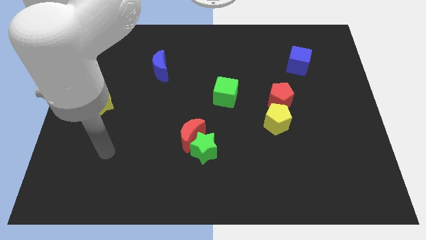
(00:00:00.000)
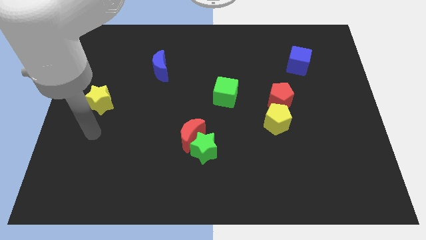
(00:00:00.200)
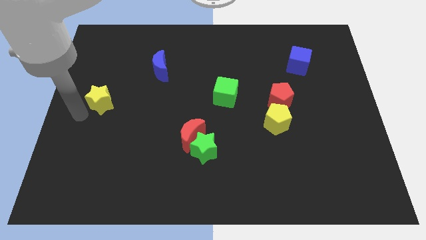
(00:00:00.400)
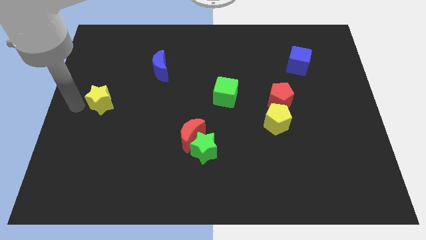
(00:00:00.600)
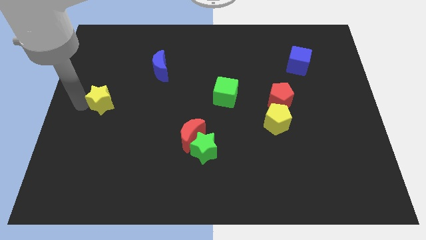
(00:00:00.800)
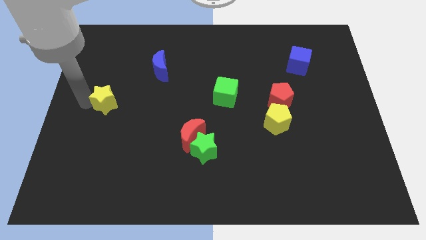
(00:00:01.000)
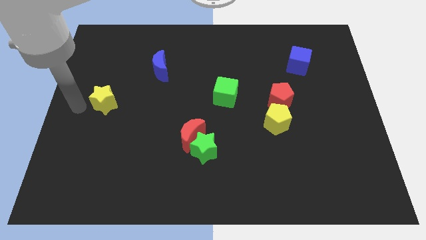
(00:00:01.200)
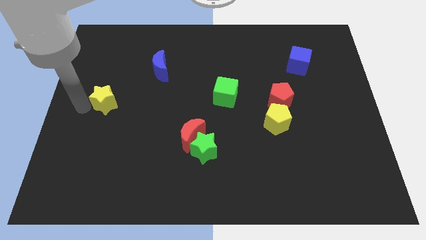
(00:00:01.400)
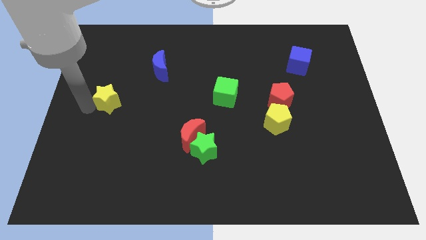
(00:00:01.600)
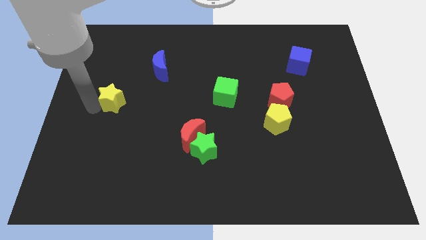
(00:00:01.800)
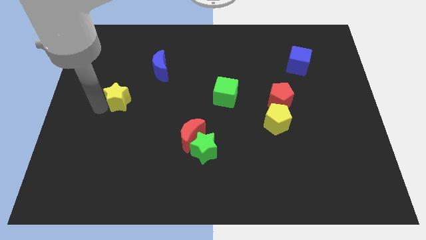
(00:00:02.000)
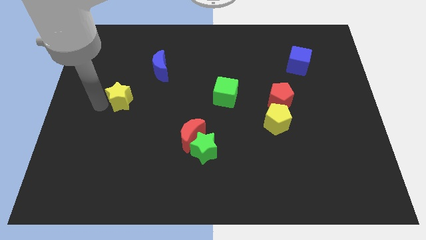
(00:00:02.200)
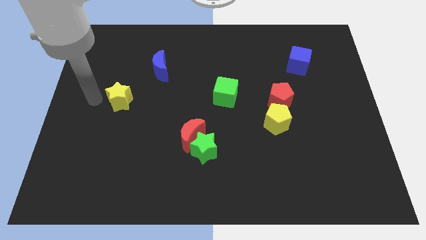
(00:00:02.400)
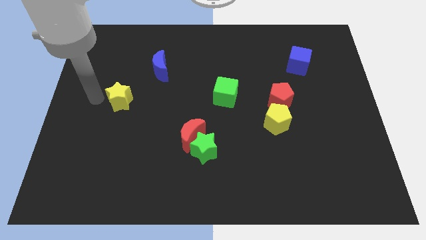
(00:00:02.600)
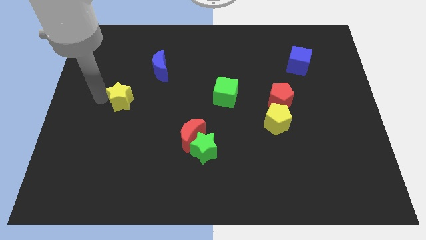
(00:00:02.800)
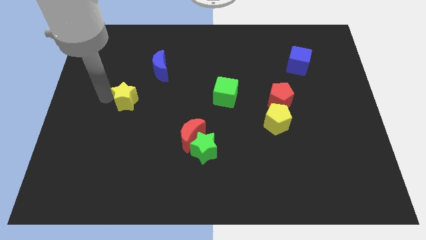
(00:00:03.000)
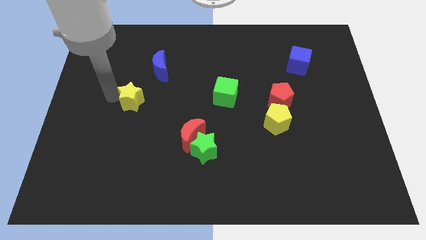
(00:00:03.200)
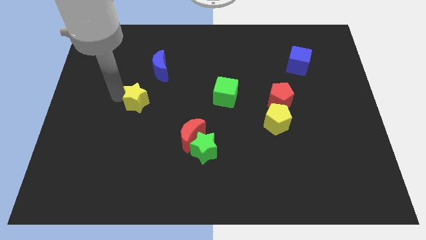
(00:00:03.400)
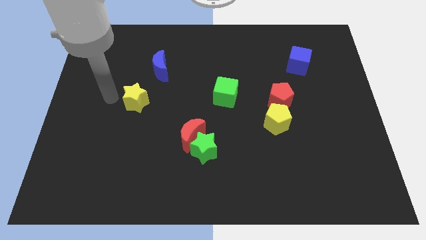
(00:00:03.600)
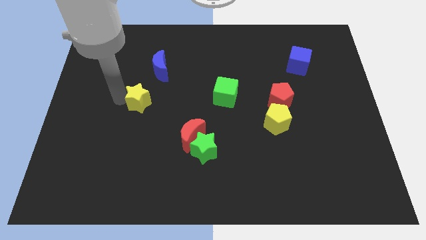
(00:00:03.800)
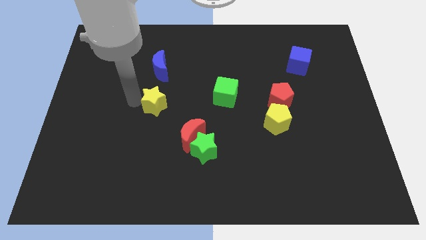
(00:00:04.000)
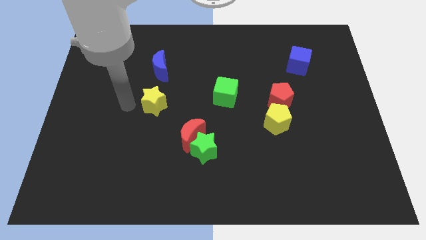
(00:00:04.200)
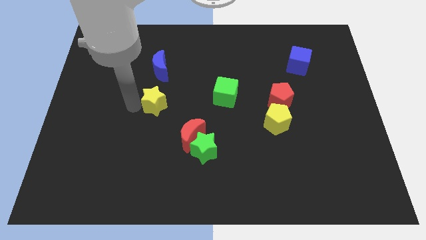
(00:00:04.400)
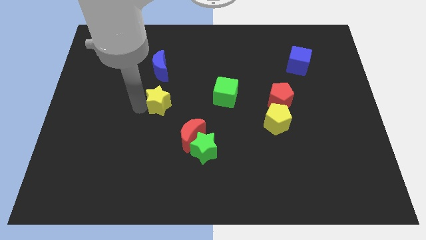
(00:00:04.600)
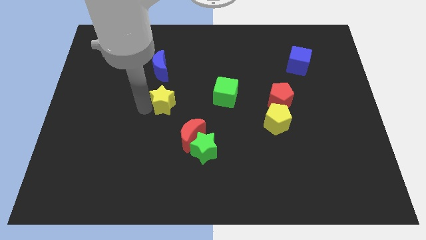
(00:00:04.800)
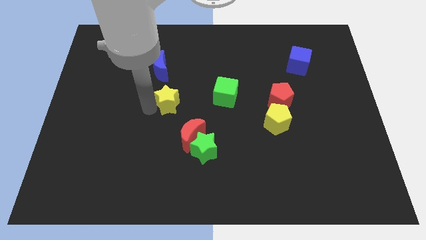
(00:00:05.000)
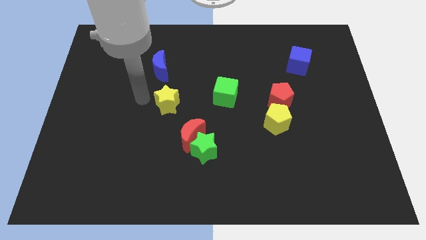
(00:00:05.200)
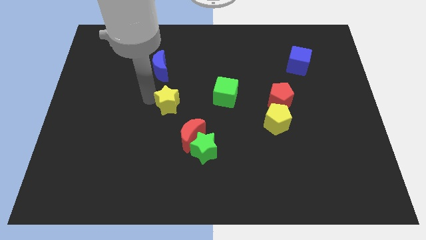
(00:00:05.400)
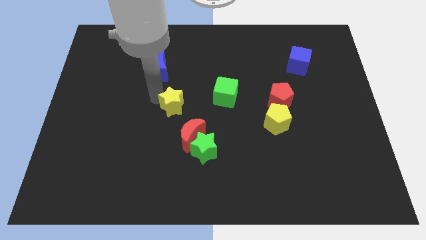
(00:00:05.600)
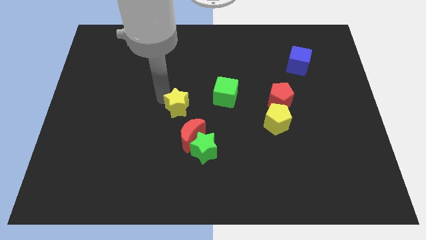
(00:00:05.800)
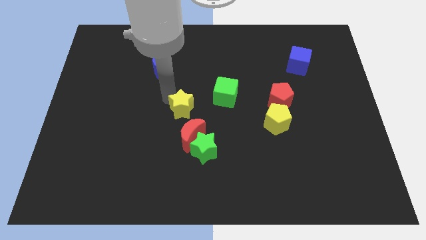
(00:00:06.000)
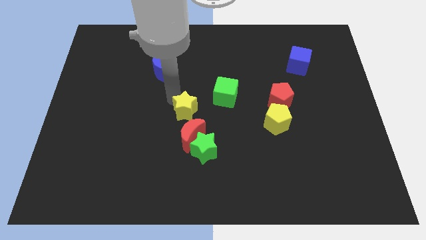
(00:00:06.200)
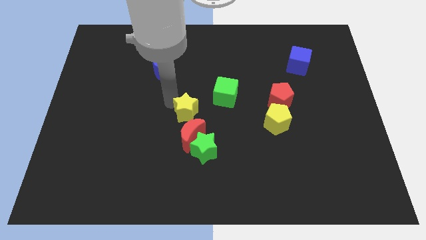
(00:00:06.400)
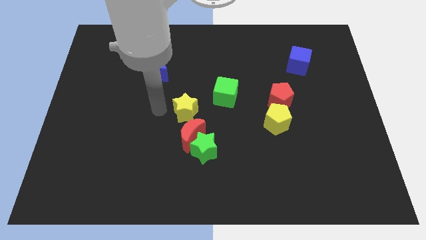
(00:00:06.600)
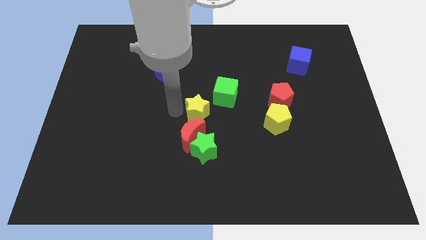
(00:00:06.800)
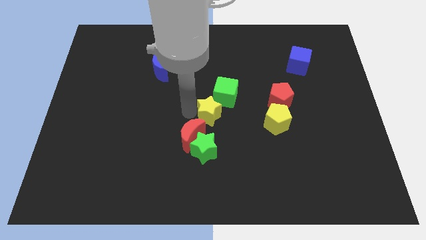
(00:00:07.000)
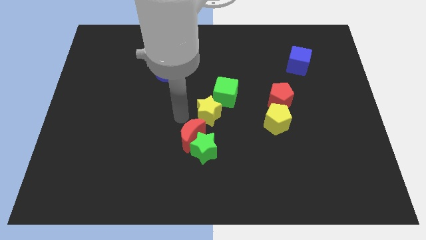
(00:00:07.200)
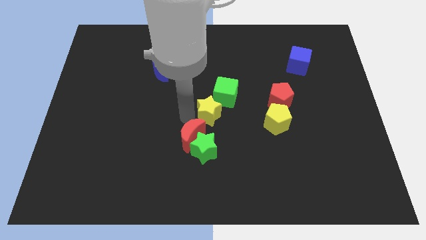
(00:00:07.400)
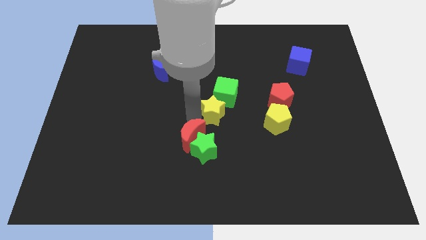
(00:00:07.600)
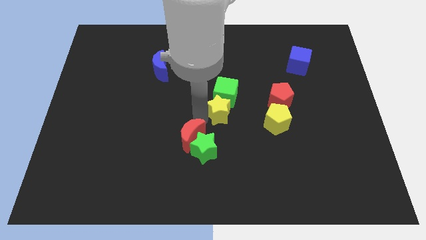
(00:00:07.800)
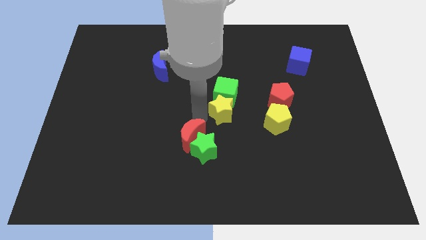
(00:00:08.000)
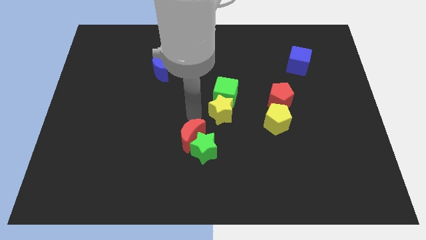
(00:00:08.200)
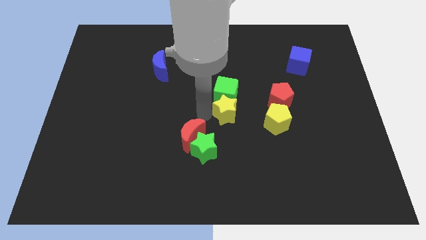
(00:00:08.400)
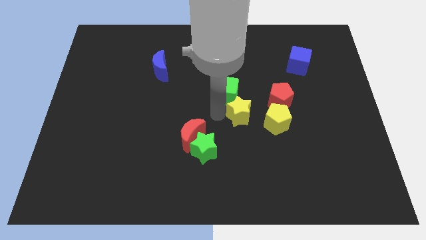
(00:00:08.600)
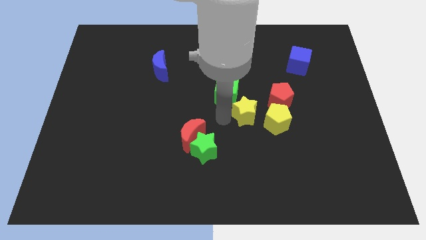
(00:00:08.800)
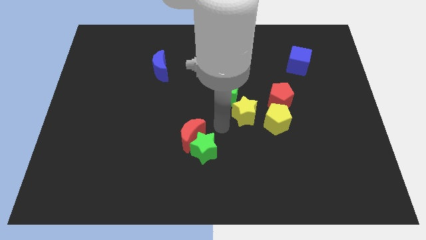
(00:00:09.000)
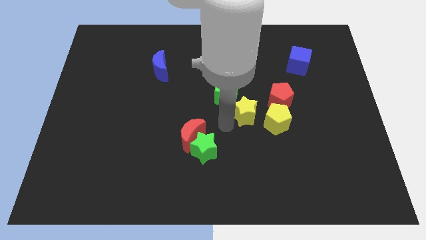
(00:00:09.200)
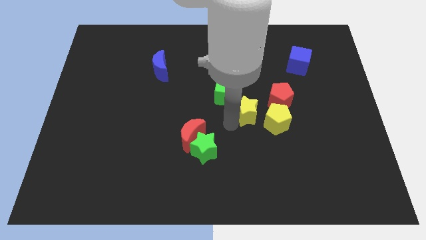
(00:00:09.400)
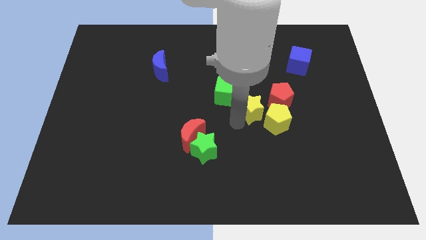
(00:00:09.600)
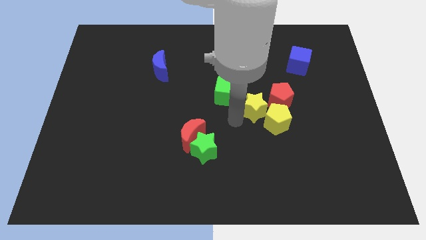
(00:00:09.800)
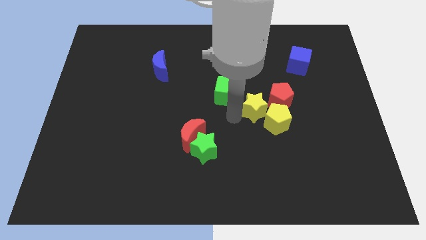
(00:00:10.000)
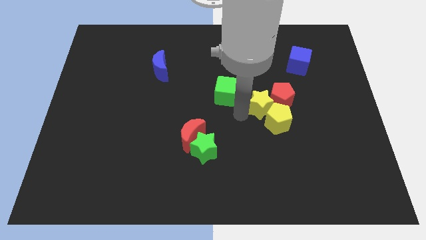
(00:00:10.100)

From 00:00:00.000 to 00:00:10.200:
slide the yellow star next to the red pentagon

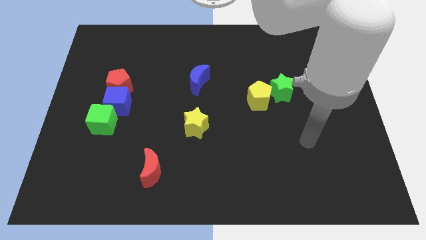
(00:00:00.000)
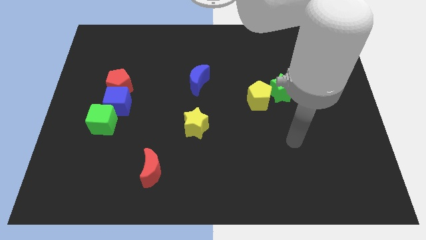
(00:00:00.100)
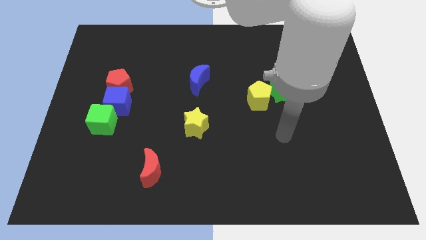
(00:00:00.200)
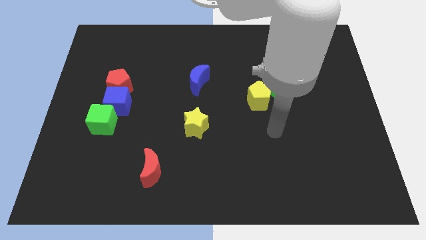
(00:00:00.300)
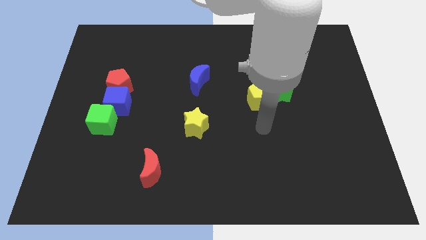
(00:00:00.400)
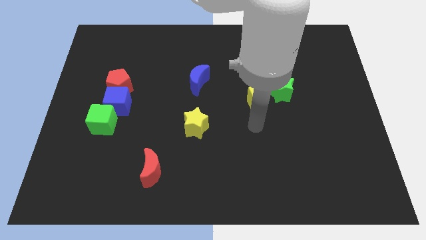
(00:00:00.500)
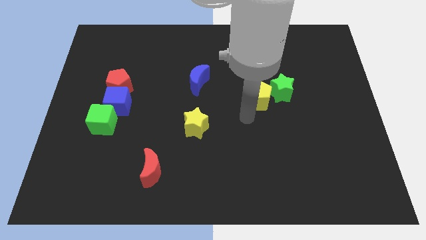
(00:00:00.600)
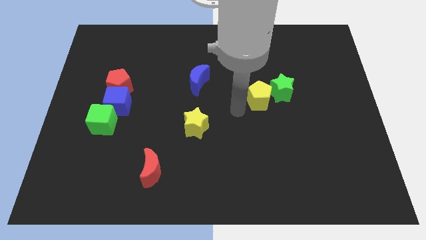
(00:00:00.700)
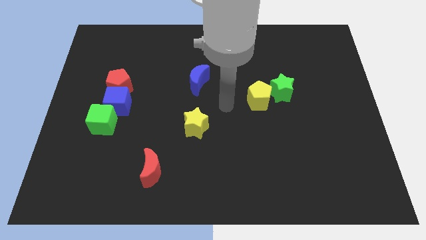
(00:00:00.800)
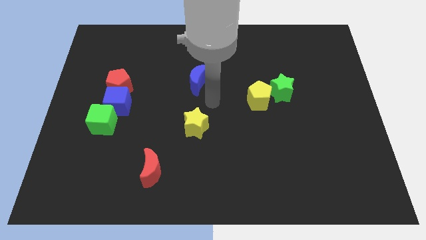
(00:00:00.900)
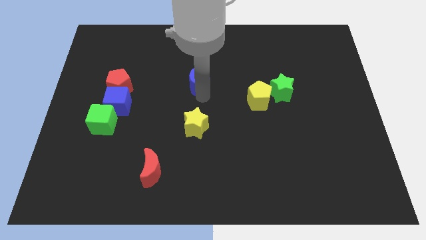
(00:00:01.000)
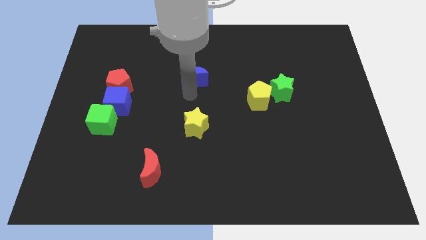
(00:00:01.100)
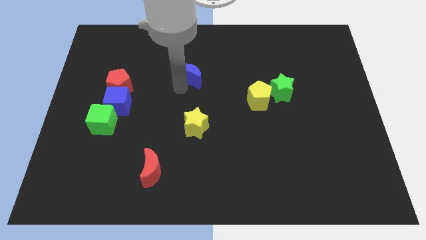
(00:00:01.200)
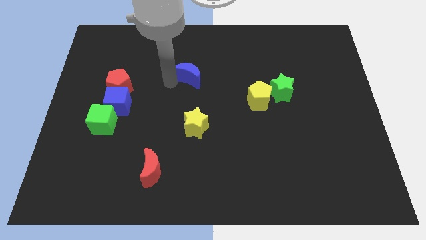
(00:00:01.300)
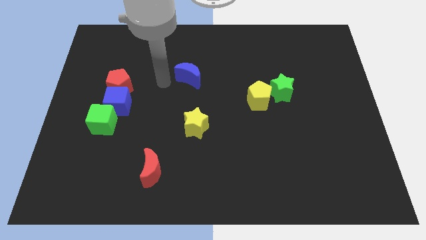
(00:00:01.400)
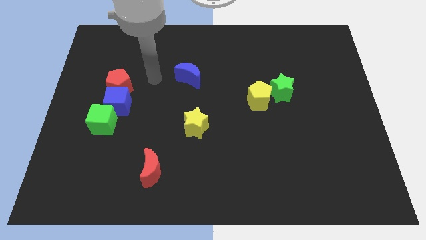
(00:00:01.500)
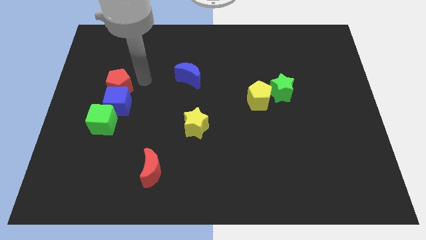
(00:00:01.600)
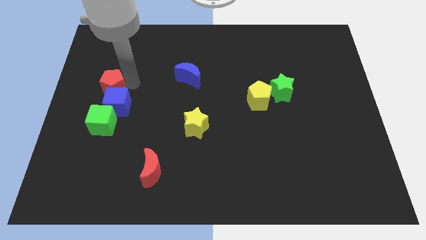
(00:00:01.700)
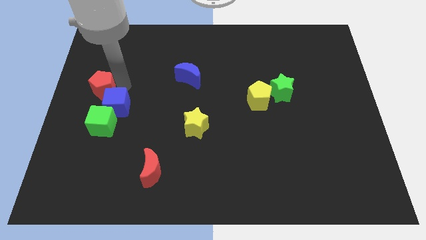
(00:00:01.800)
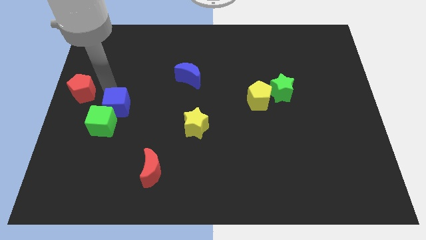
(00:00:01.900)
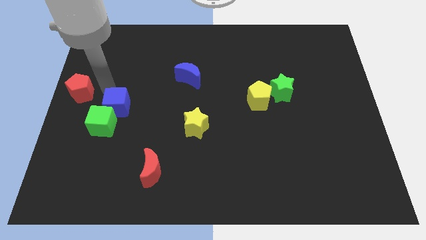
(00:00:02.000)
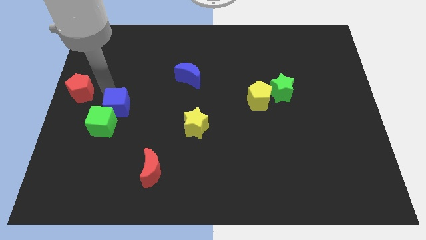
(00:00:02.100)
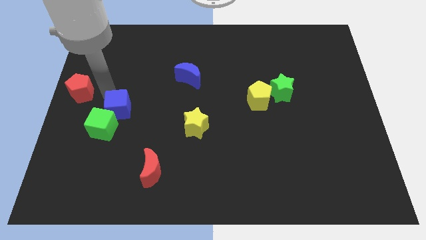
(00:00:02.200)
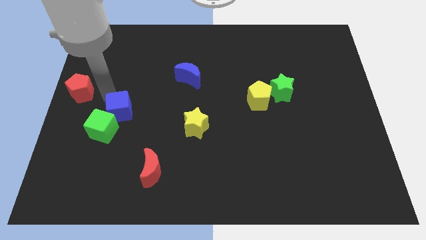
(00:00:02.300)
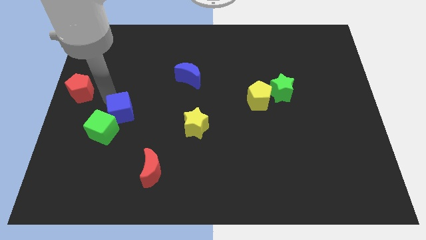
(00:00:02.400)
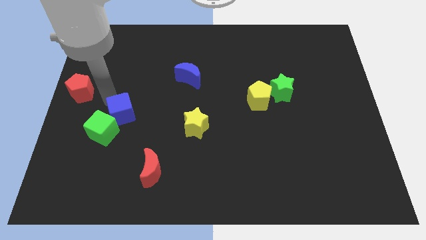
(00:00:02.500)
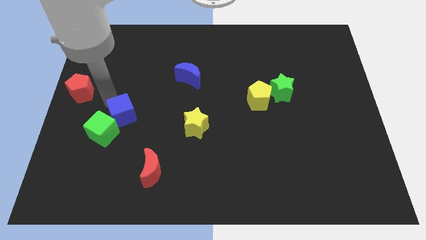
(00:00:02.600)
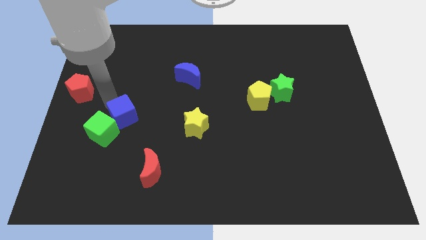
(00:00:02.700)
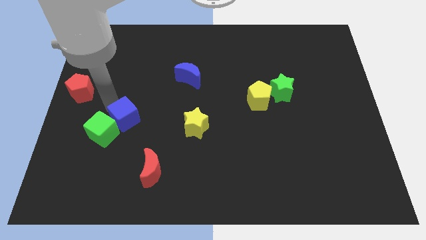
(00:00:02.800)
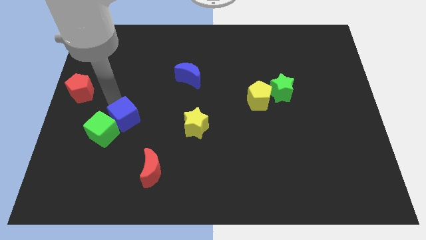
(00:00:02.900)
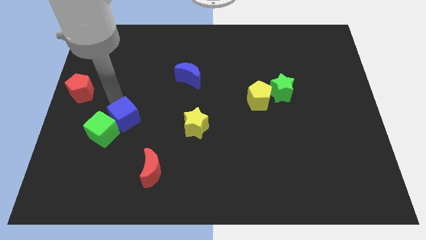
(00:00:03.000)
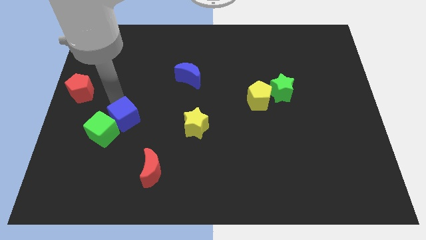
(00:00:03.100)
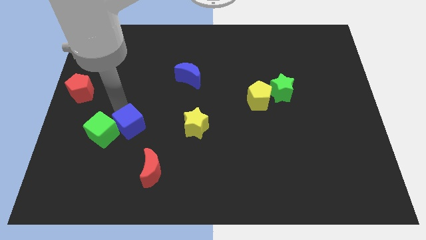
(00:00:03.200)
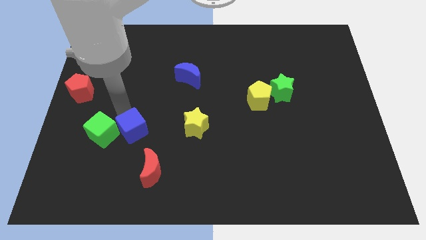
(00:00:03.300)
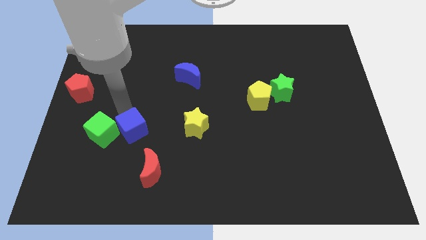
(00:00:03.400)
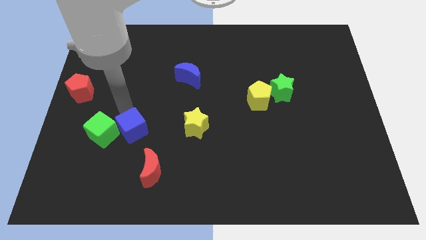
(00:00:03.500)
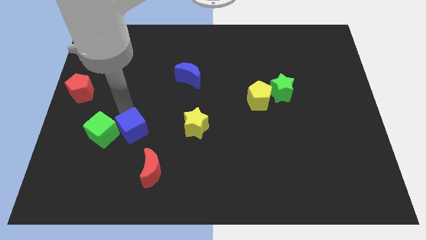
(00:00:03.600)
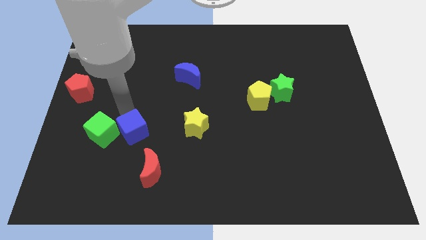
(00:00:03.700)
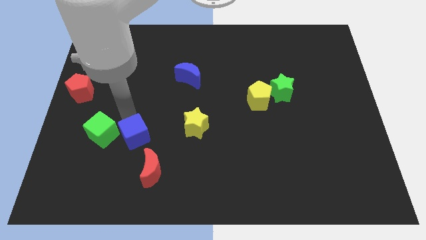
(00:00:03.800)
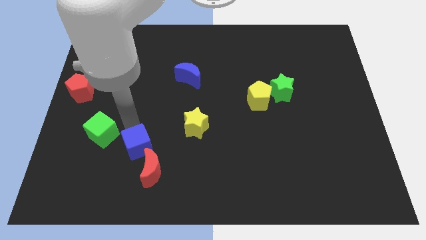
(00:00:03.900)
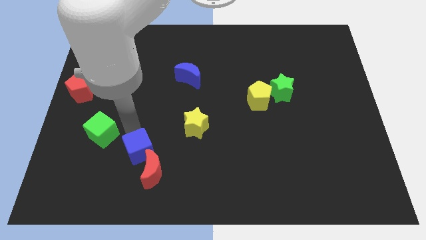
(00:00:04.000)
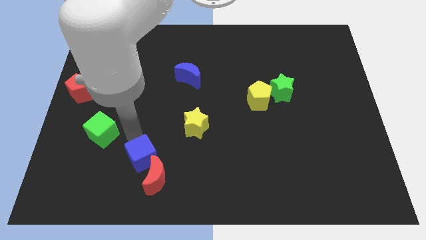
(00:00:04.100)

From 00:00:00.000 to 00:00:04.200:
push the blue cube to the red moon
